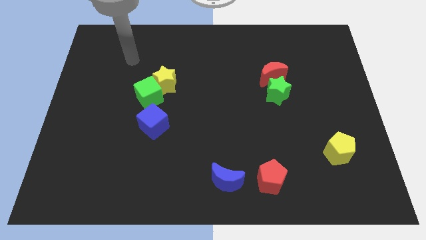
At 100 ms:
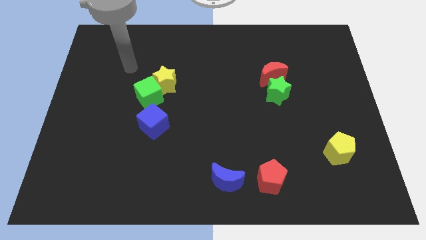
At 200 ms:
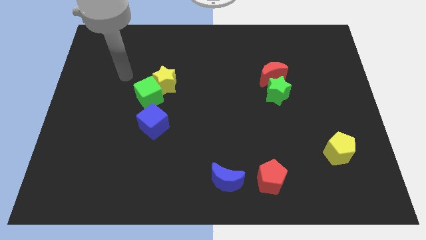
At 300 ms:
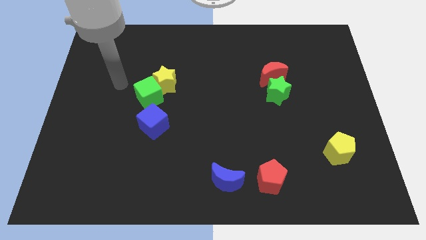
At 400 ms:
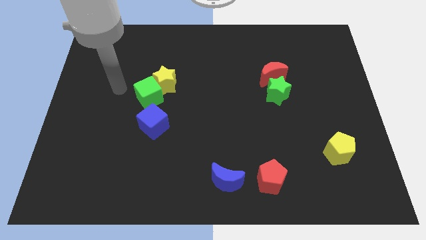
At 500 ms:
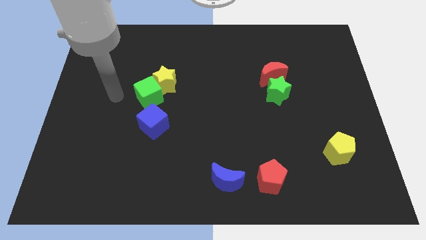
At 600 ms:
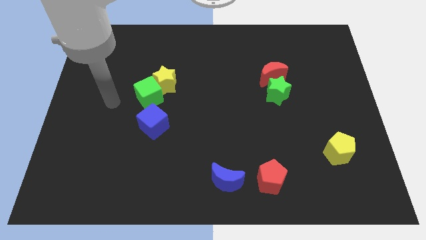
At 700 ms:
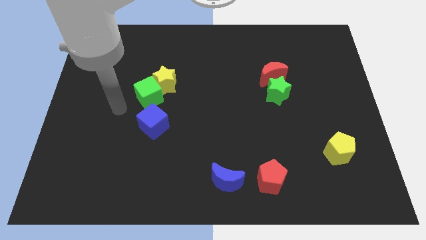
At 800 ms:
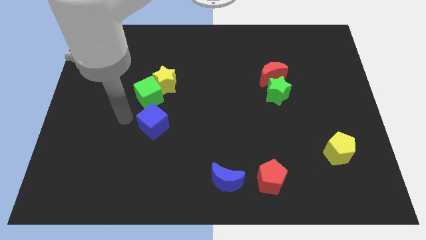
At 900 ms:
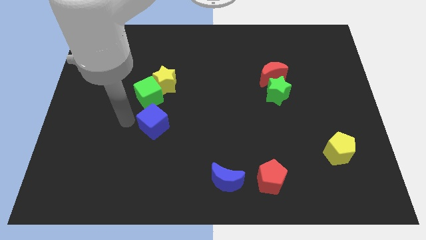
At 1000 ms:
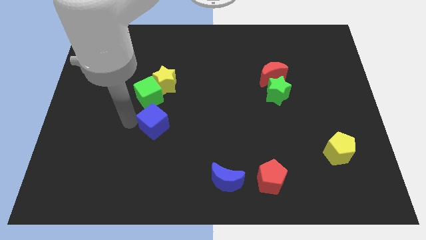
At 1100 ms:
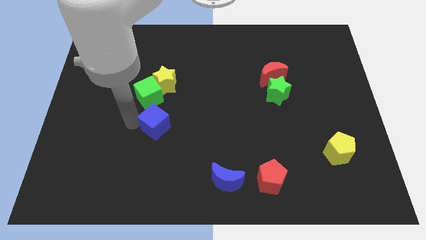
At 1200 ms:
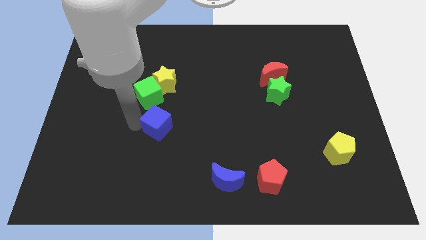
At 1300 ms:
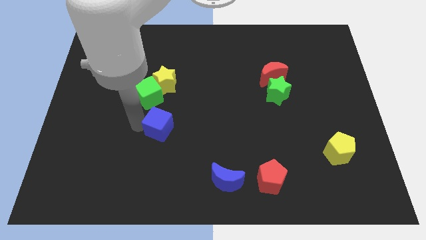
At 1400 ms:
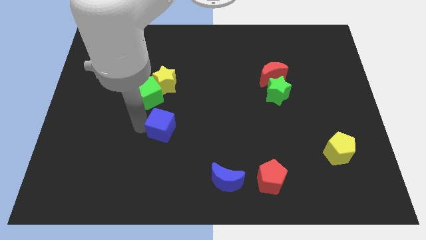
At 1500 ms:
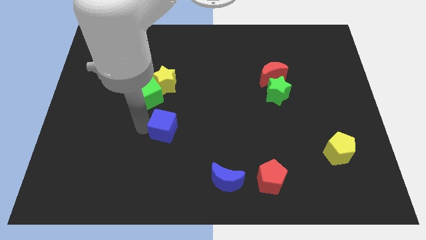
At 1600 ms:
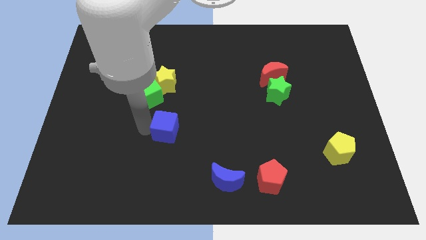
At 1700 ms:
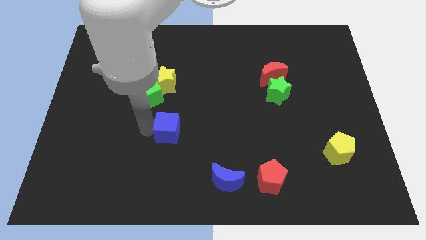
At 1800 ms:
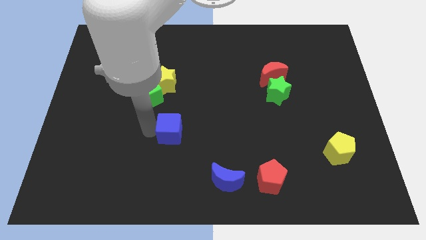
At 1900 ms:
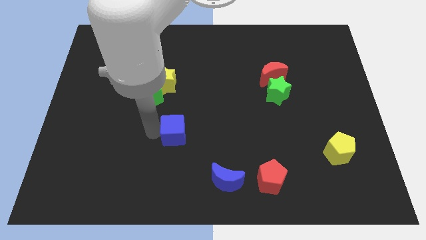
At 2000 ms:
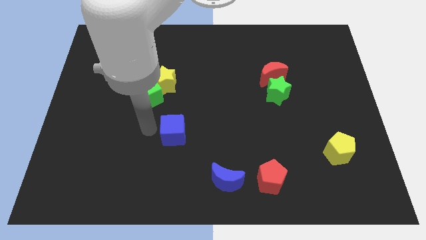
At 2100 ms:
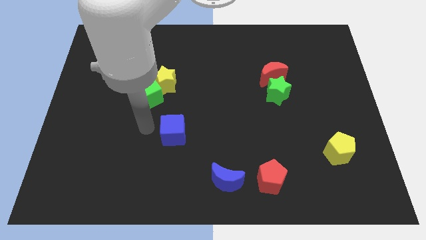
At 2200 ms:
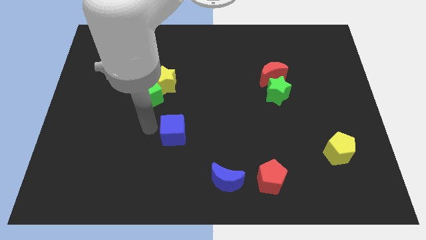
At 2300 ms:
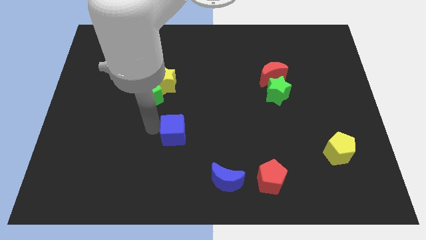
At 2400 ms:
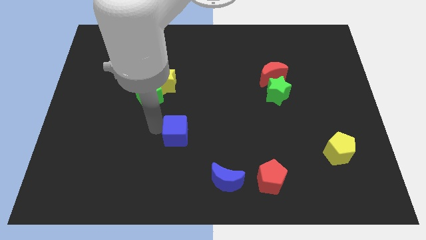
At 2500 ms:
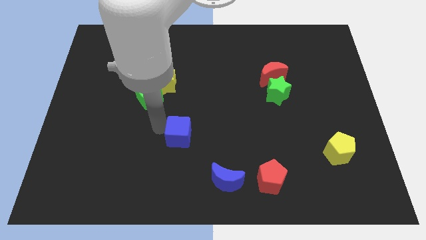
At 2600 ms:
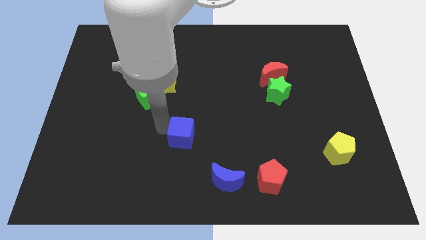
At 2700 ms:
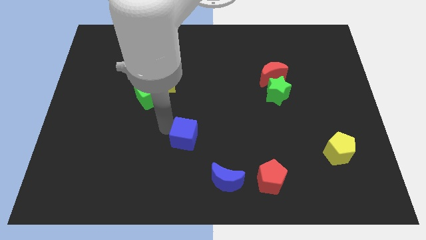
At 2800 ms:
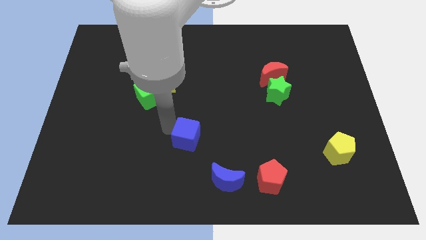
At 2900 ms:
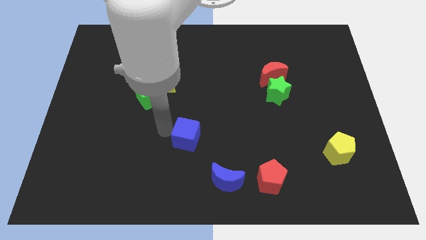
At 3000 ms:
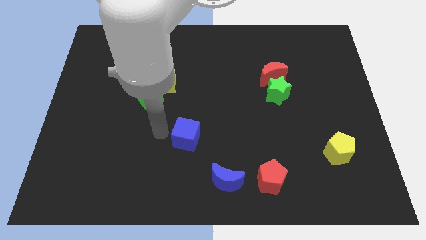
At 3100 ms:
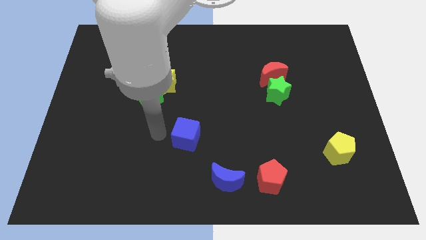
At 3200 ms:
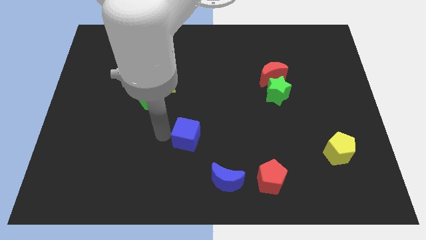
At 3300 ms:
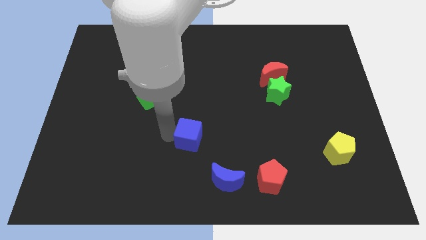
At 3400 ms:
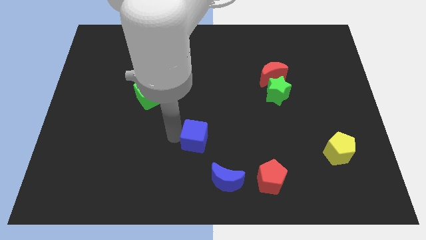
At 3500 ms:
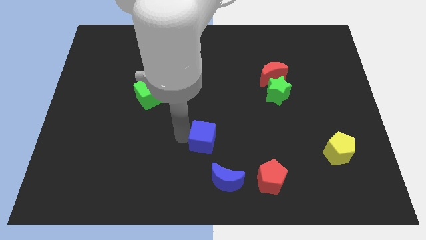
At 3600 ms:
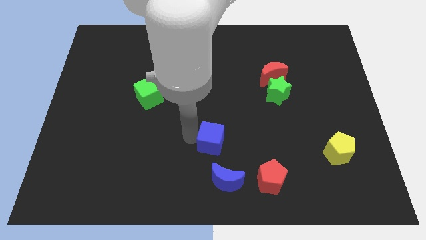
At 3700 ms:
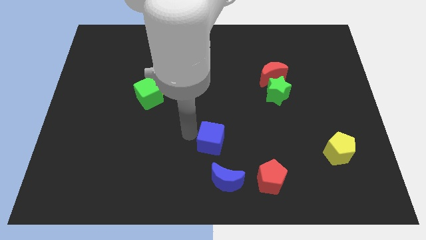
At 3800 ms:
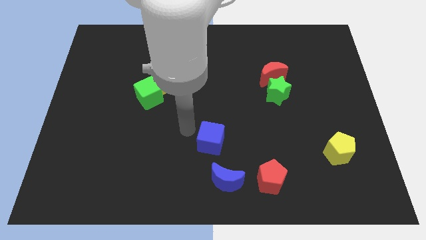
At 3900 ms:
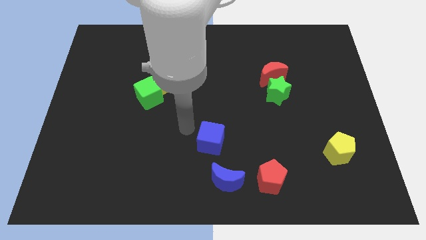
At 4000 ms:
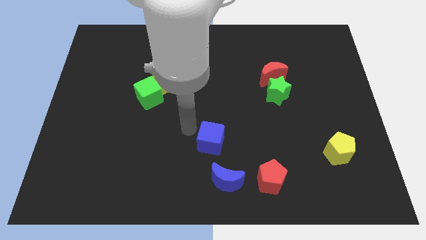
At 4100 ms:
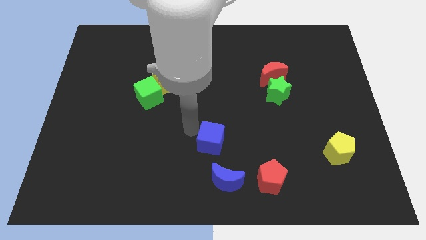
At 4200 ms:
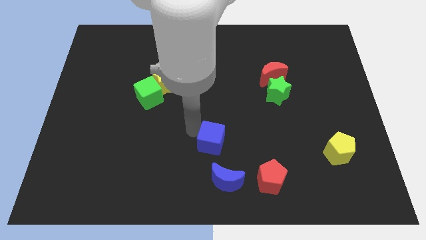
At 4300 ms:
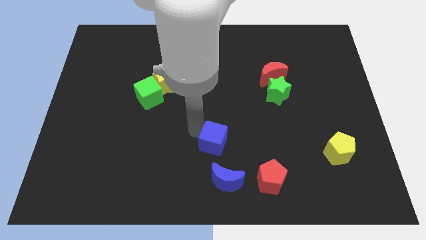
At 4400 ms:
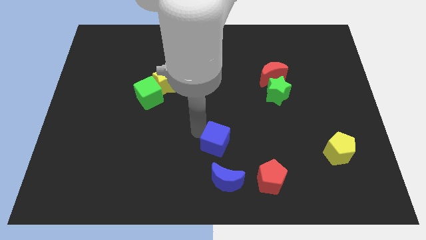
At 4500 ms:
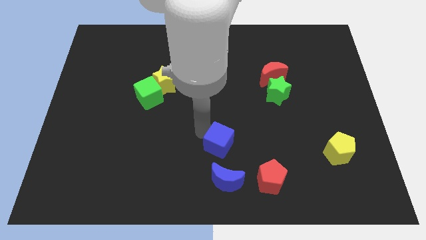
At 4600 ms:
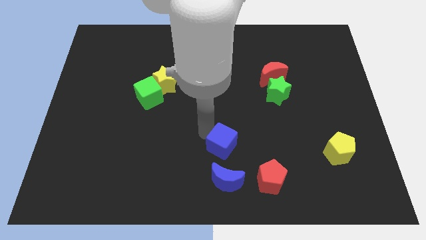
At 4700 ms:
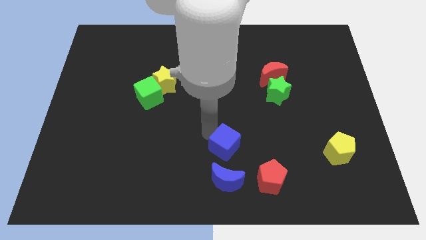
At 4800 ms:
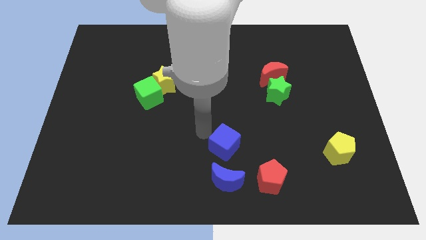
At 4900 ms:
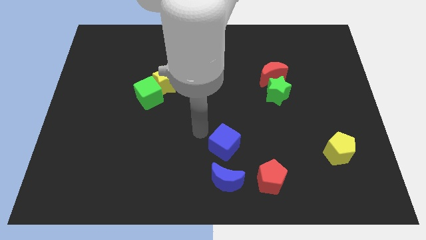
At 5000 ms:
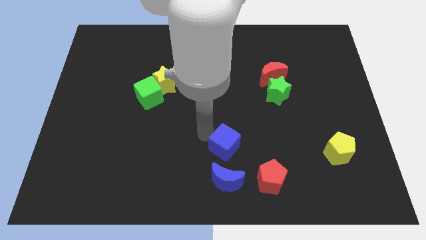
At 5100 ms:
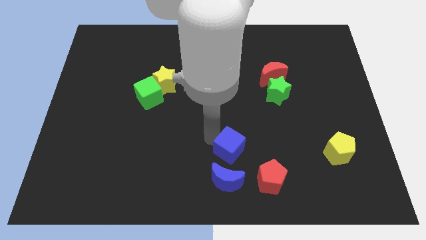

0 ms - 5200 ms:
slide the blue cube to the top right of the blue moon

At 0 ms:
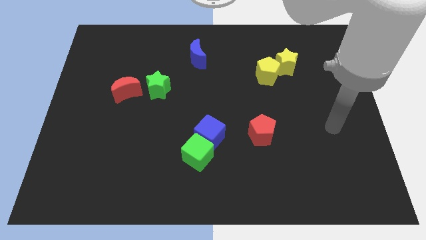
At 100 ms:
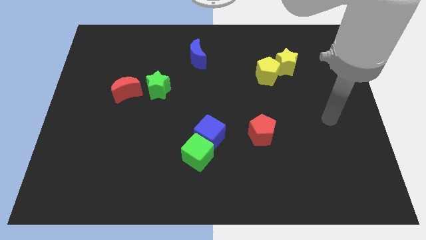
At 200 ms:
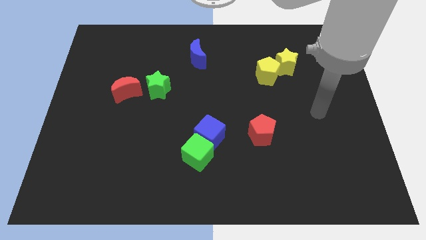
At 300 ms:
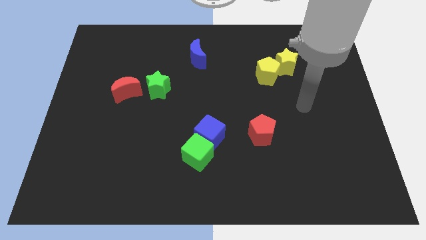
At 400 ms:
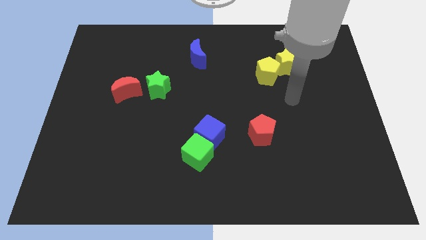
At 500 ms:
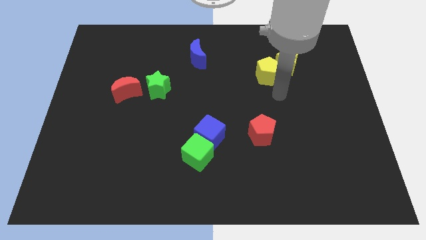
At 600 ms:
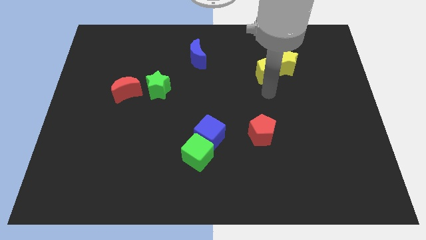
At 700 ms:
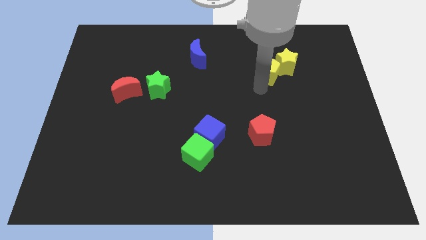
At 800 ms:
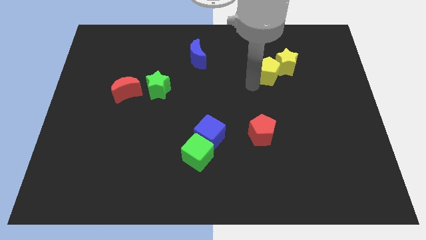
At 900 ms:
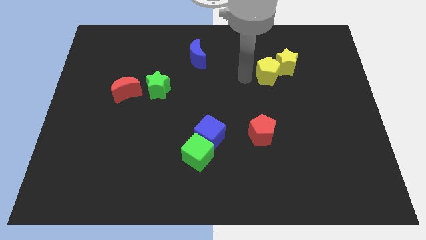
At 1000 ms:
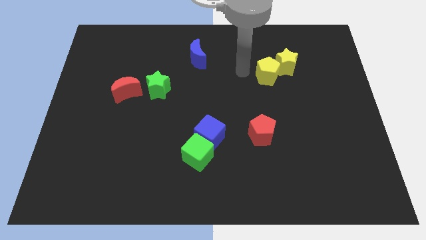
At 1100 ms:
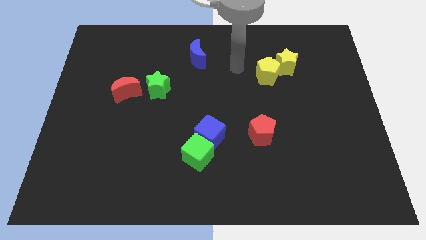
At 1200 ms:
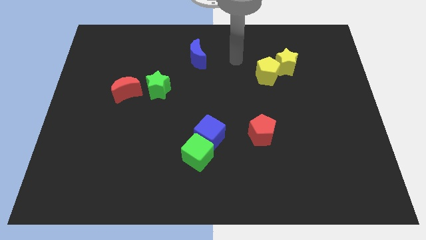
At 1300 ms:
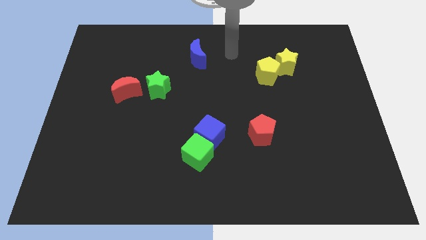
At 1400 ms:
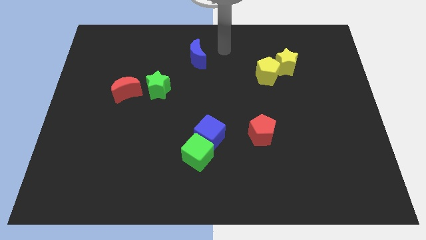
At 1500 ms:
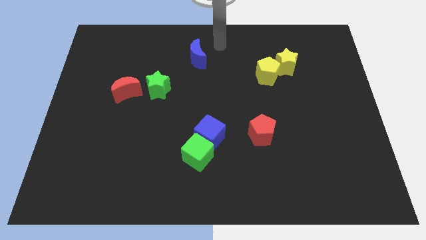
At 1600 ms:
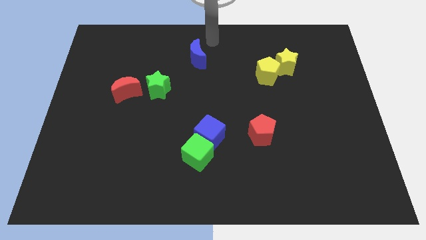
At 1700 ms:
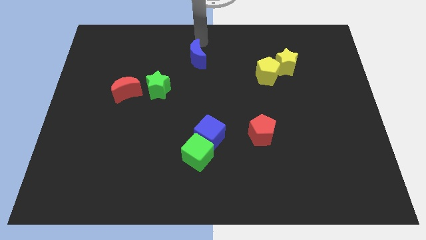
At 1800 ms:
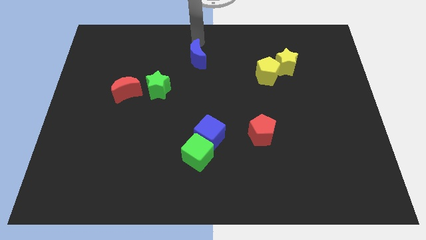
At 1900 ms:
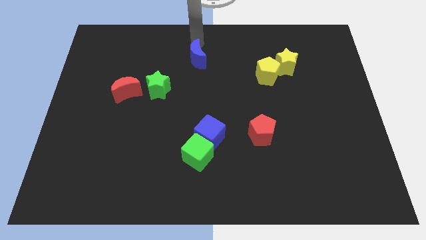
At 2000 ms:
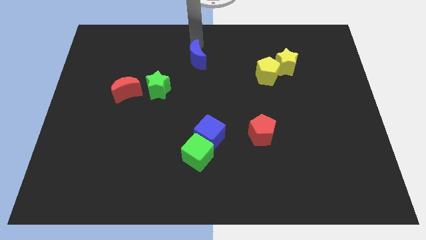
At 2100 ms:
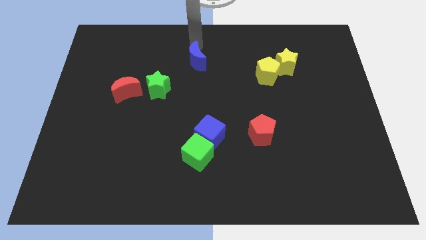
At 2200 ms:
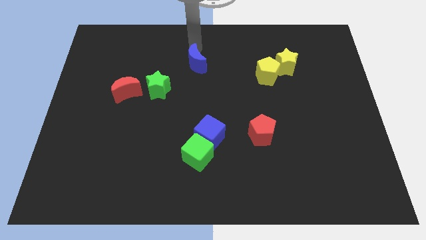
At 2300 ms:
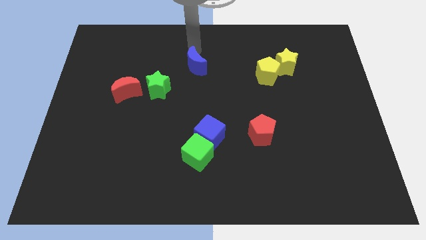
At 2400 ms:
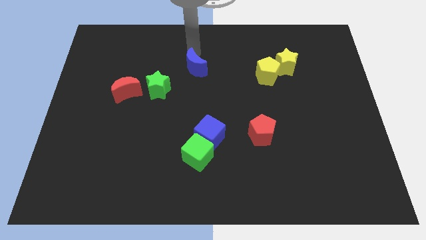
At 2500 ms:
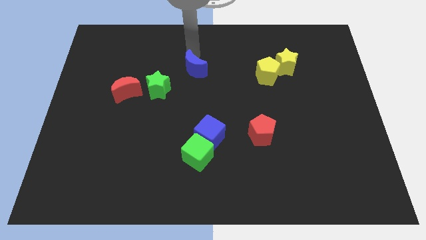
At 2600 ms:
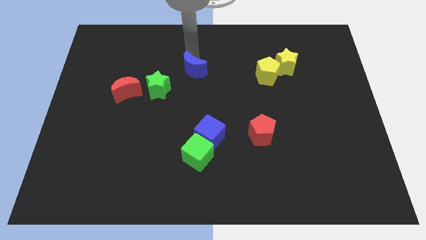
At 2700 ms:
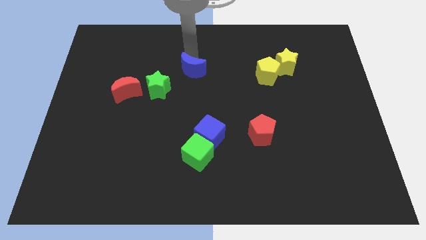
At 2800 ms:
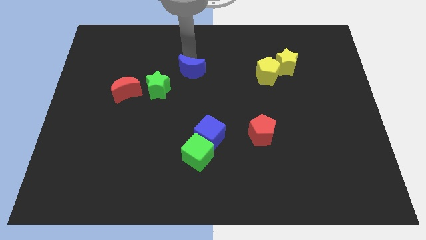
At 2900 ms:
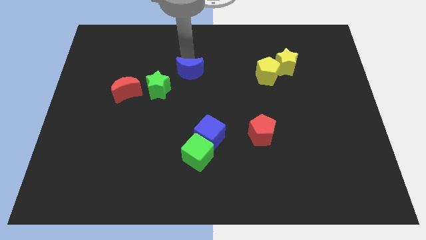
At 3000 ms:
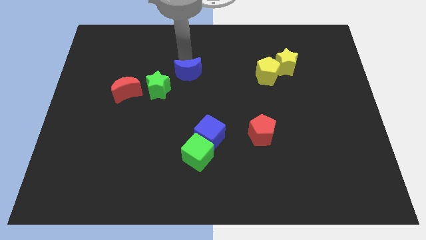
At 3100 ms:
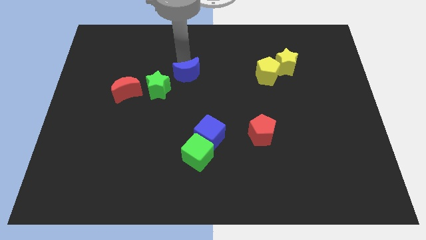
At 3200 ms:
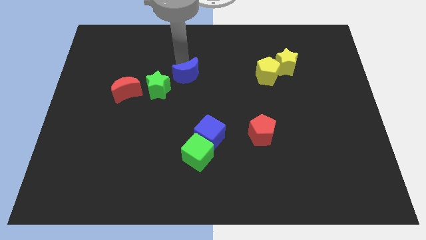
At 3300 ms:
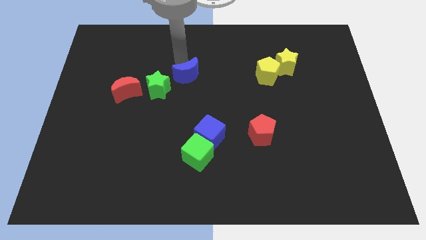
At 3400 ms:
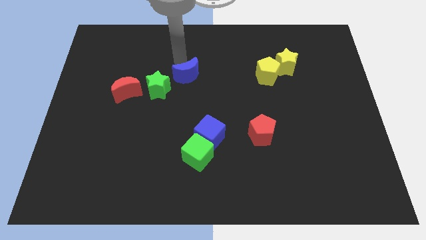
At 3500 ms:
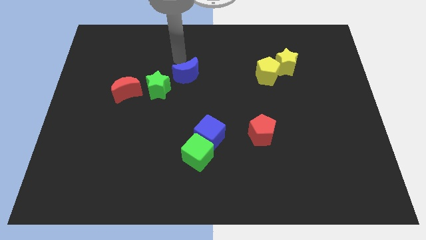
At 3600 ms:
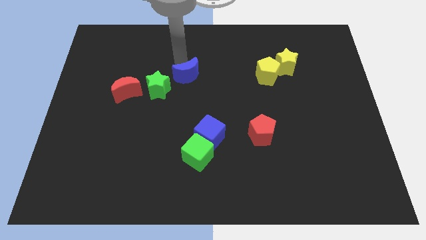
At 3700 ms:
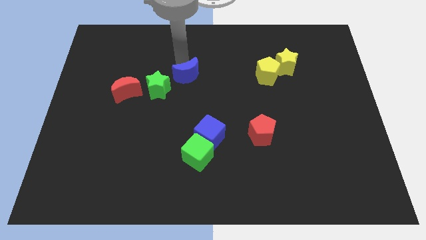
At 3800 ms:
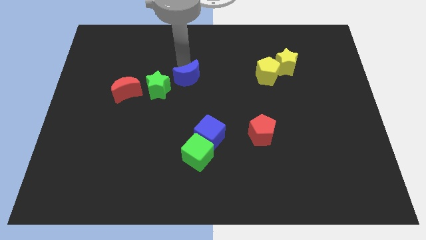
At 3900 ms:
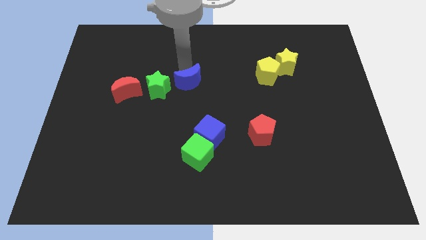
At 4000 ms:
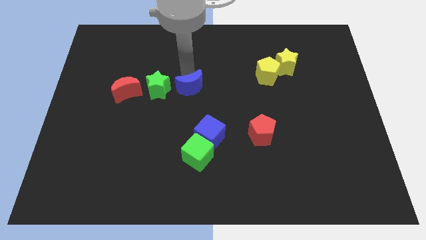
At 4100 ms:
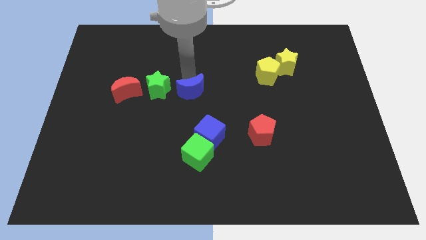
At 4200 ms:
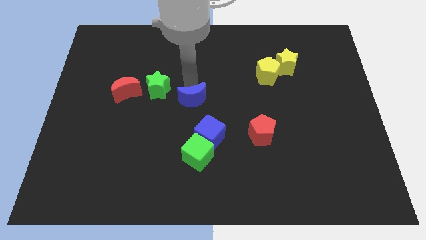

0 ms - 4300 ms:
slide the blue moon to the top of the green cube
